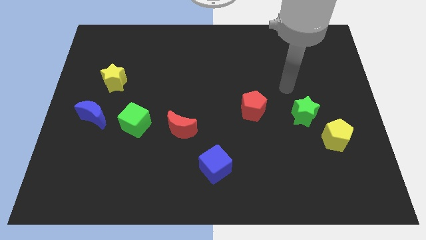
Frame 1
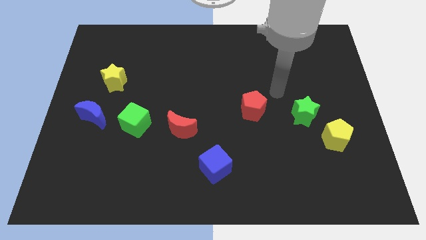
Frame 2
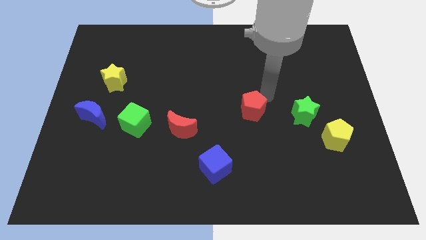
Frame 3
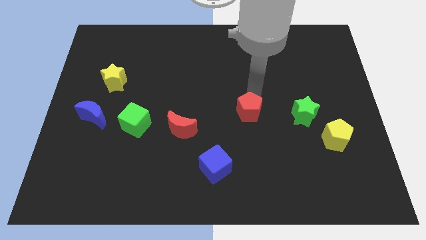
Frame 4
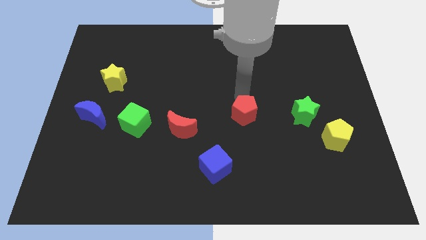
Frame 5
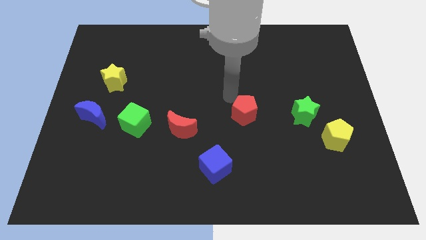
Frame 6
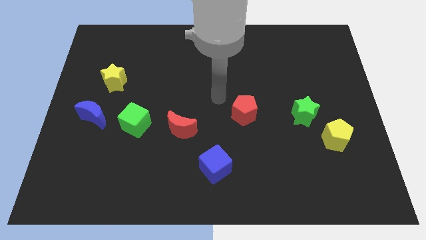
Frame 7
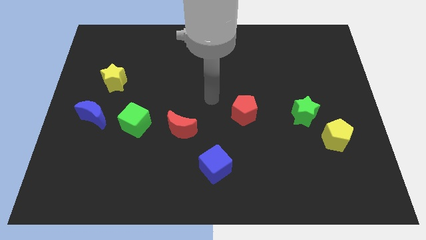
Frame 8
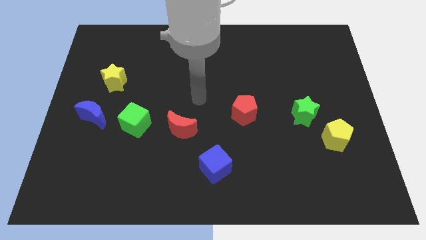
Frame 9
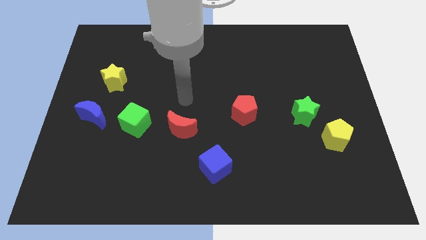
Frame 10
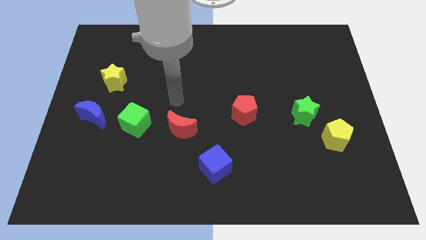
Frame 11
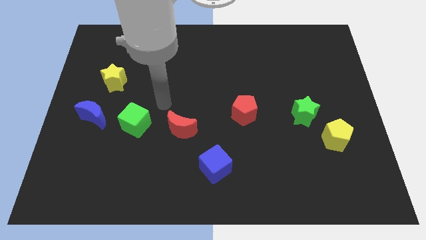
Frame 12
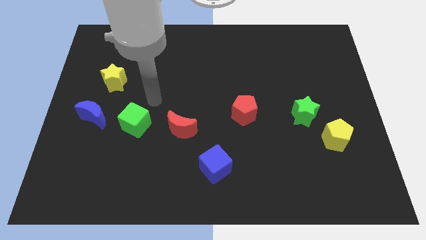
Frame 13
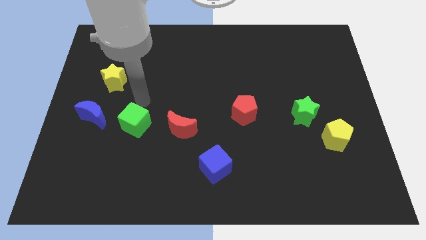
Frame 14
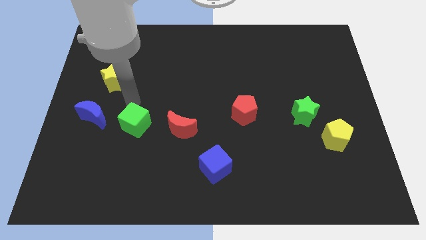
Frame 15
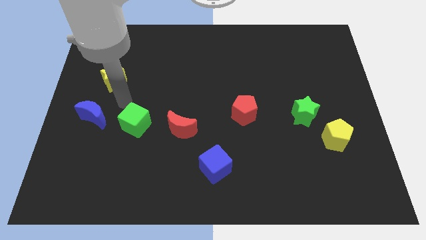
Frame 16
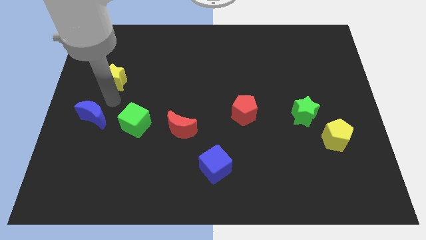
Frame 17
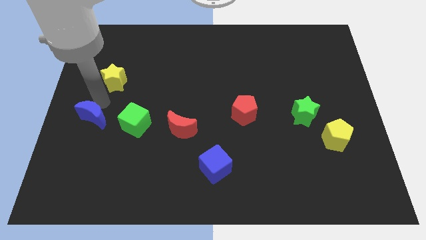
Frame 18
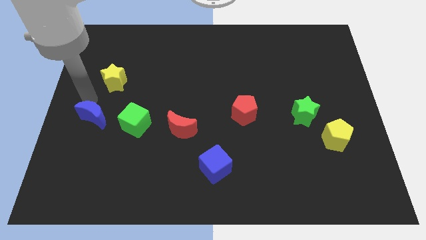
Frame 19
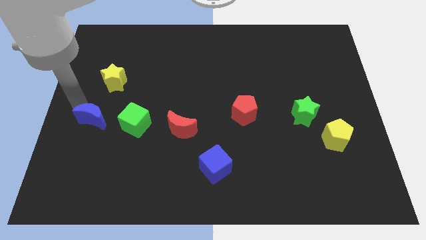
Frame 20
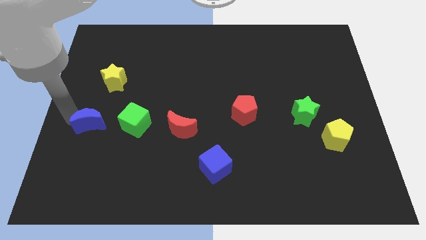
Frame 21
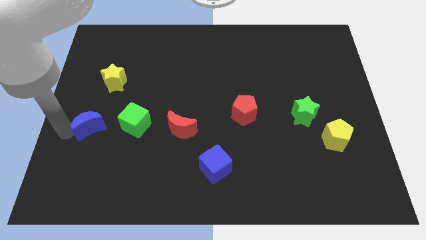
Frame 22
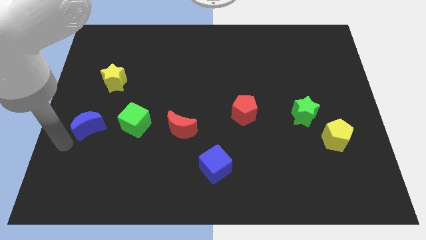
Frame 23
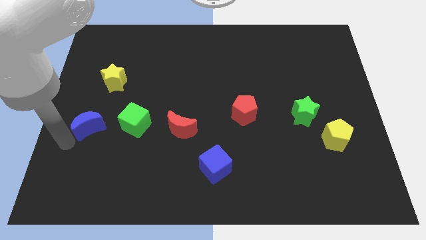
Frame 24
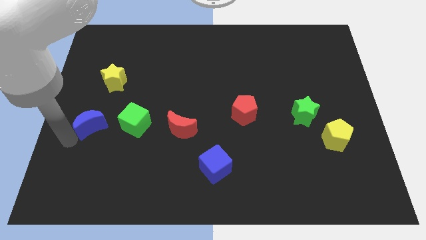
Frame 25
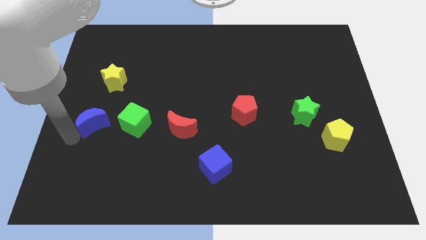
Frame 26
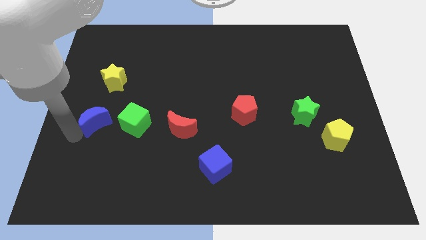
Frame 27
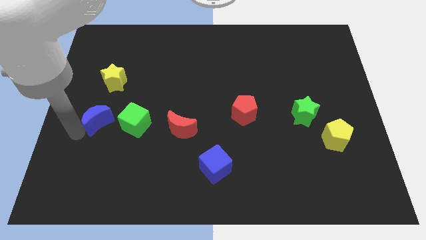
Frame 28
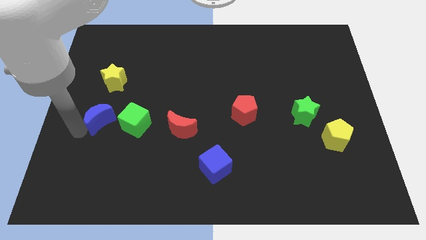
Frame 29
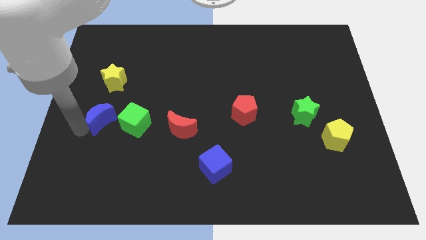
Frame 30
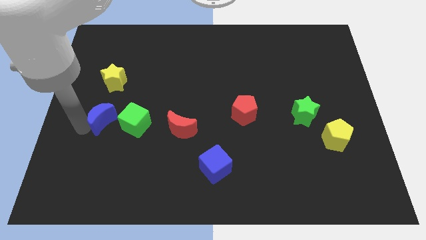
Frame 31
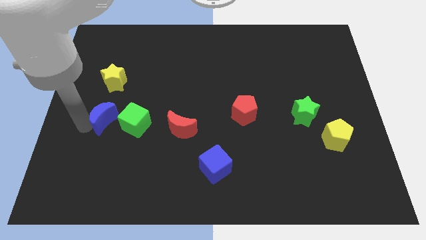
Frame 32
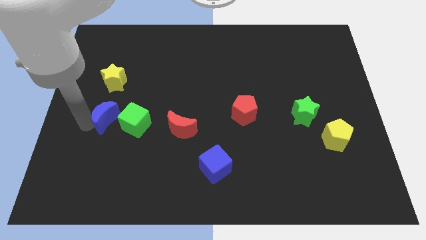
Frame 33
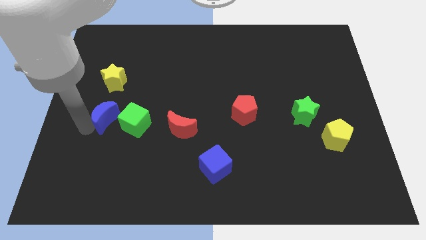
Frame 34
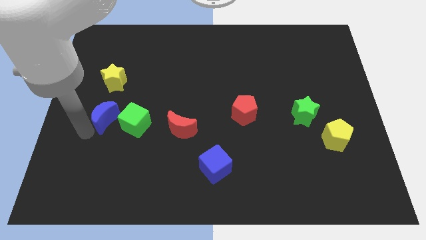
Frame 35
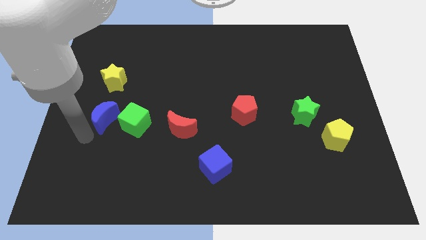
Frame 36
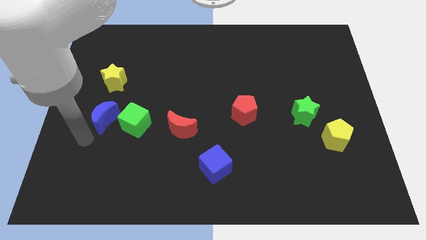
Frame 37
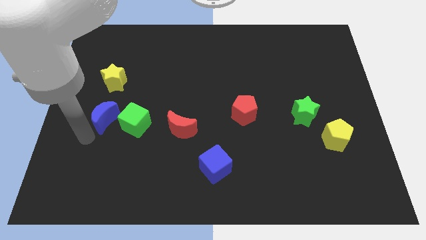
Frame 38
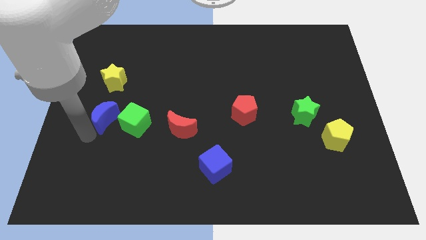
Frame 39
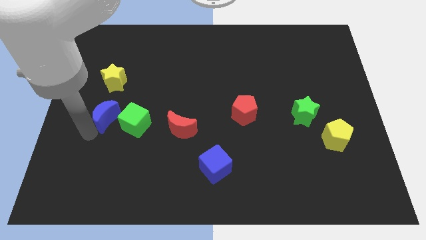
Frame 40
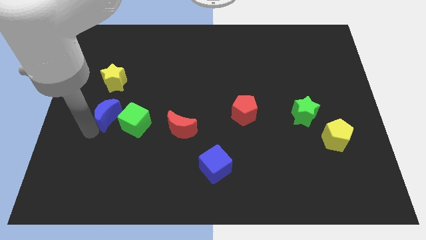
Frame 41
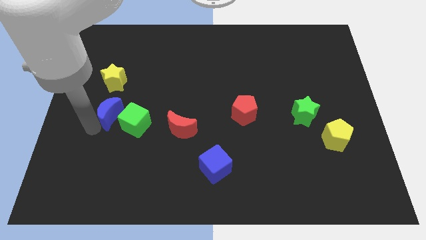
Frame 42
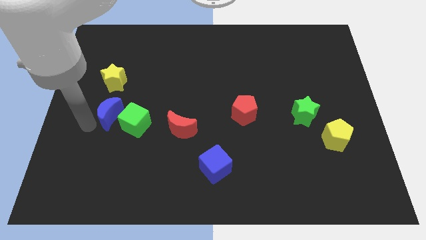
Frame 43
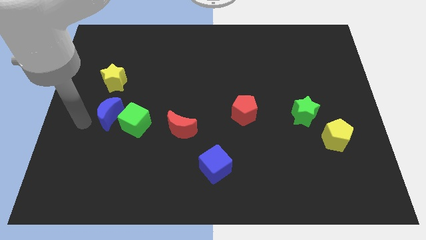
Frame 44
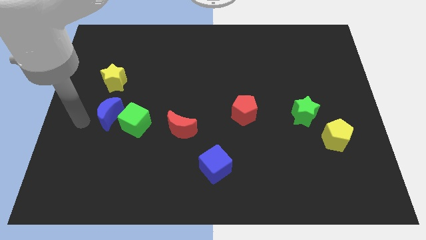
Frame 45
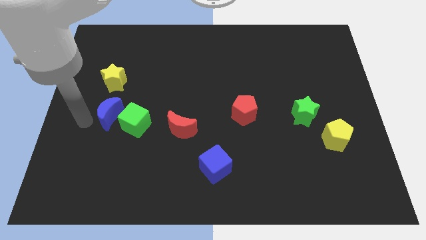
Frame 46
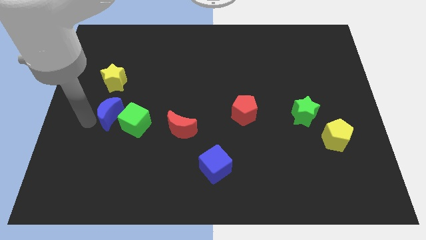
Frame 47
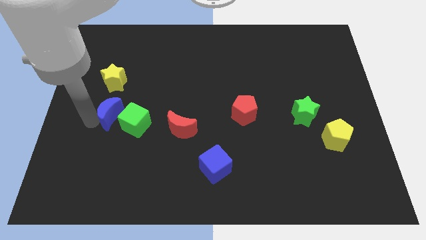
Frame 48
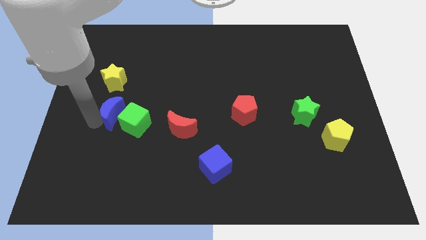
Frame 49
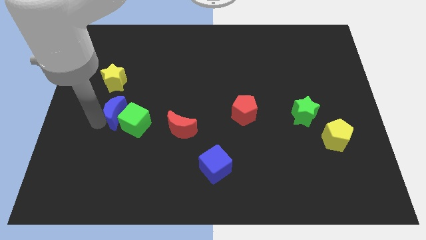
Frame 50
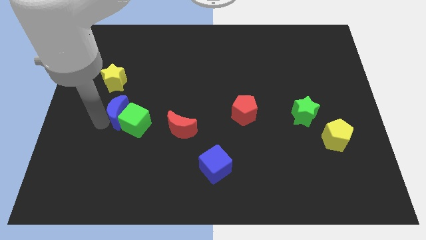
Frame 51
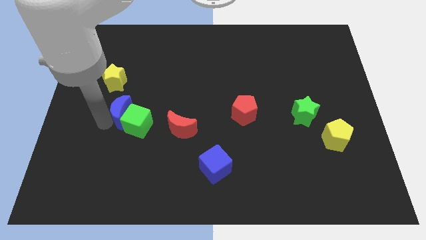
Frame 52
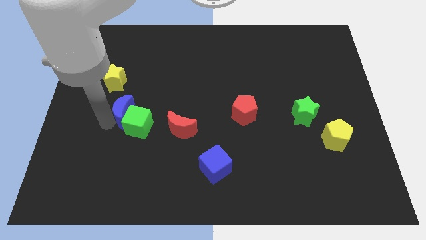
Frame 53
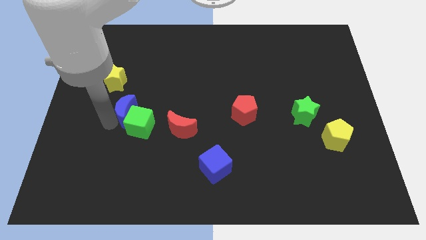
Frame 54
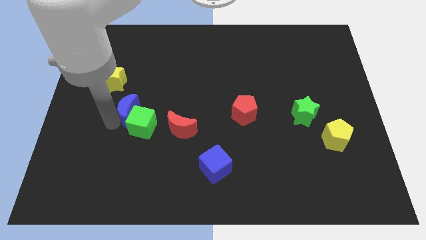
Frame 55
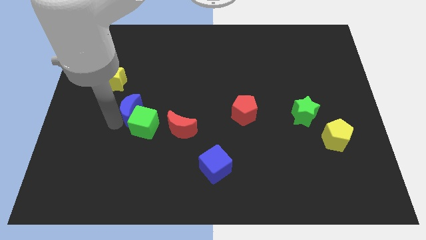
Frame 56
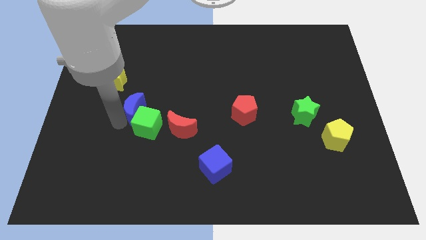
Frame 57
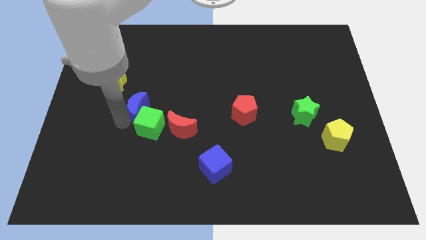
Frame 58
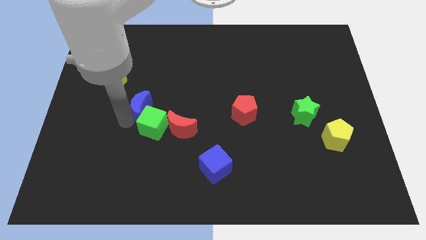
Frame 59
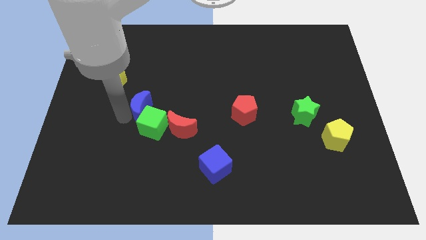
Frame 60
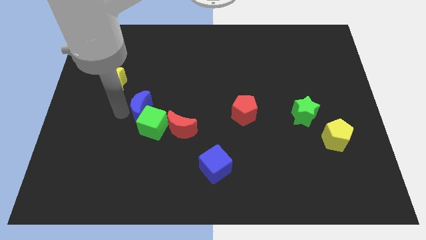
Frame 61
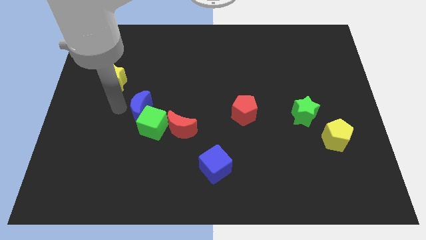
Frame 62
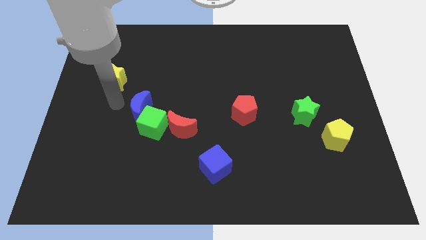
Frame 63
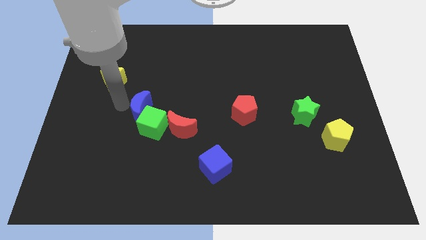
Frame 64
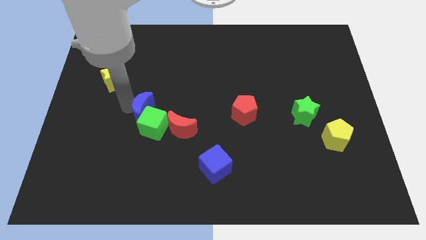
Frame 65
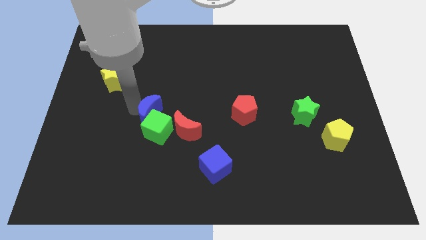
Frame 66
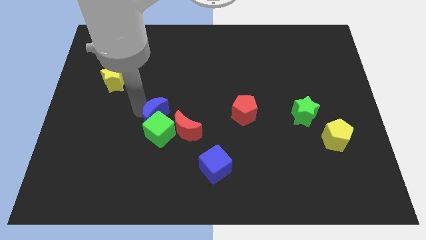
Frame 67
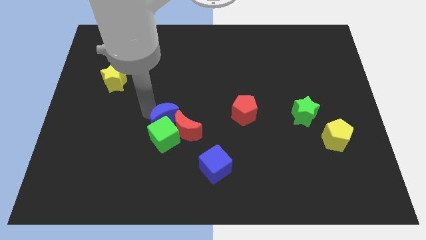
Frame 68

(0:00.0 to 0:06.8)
push the blue moon close to the red moon
